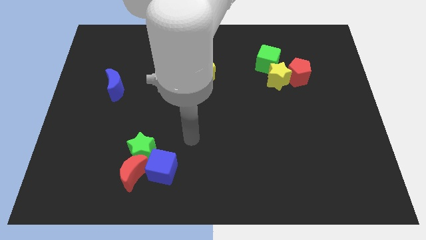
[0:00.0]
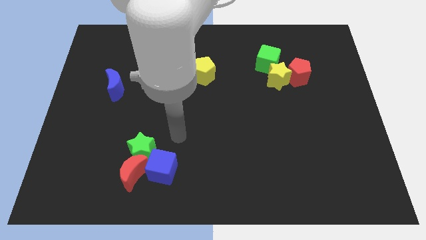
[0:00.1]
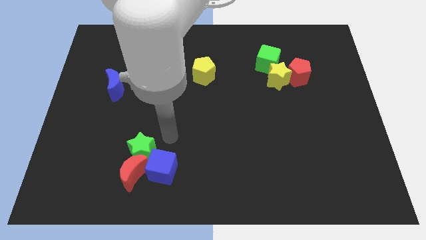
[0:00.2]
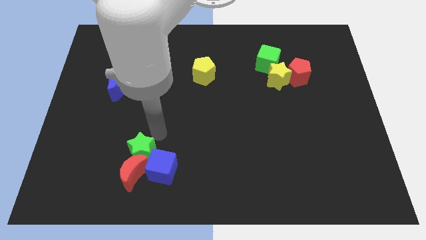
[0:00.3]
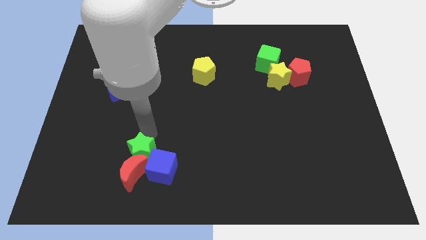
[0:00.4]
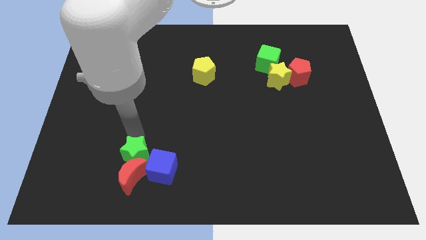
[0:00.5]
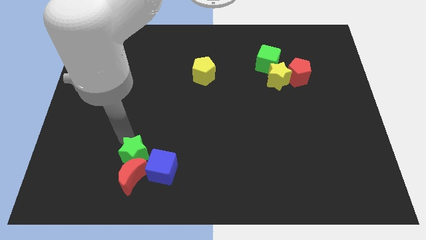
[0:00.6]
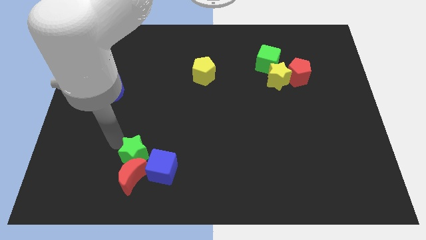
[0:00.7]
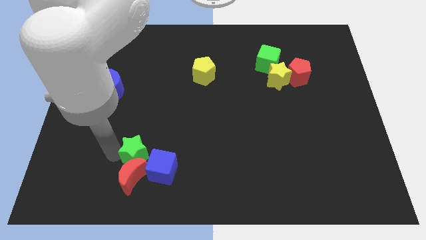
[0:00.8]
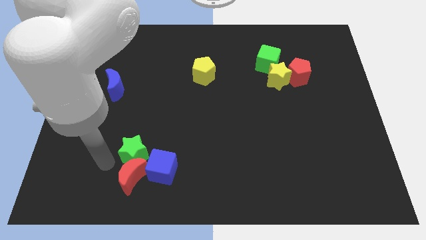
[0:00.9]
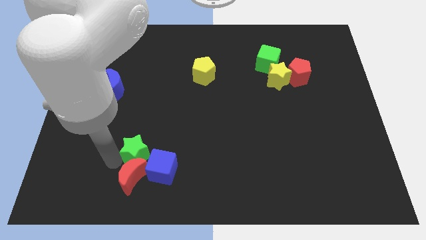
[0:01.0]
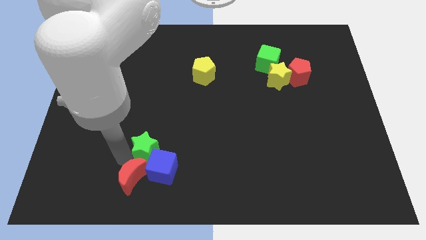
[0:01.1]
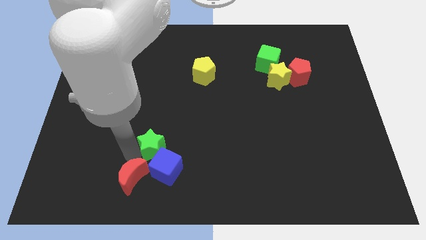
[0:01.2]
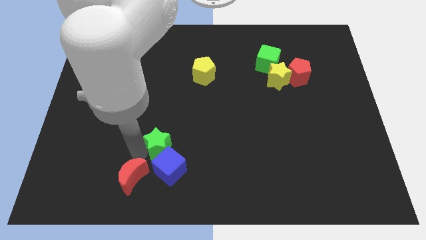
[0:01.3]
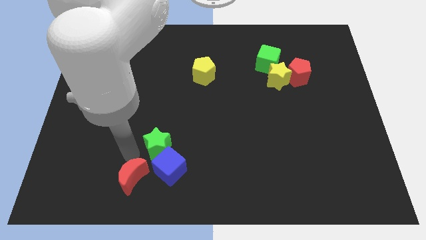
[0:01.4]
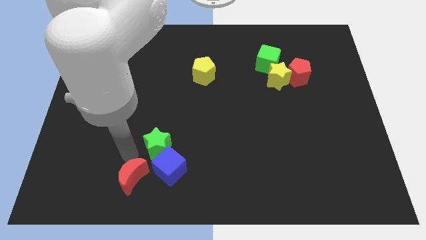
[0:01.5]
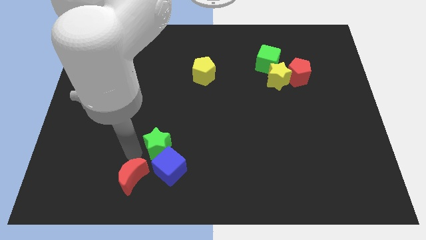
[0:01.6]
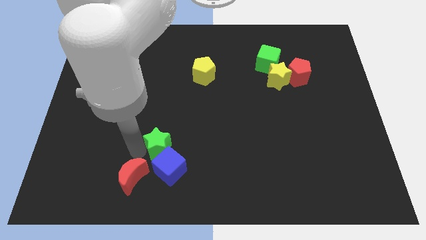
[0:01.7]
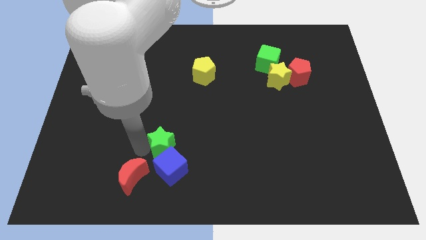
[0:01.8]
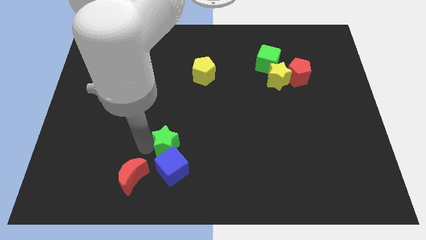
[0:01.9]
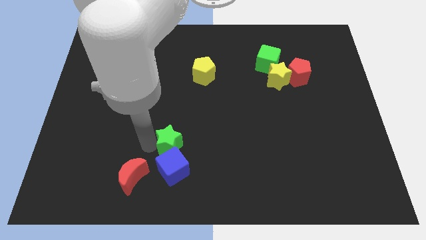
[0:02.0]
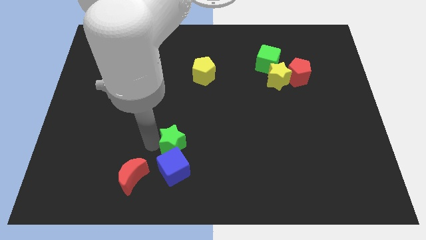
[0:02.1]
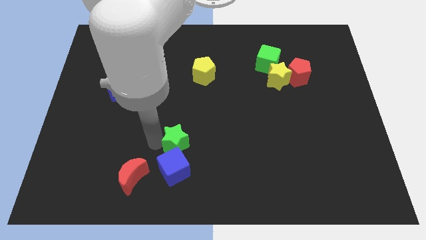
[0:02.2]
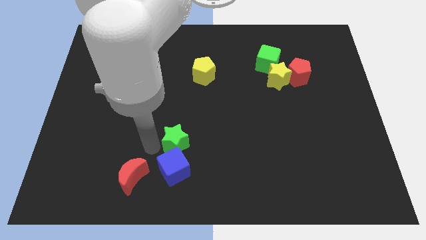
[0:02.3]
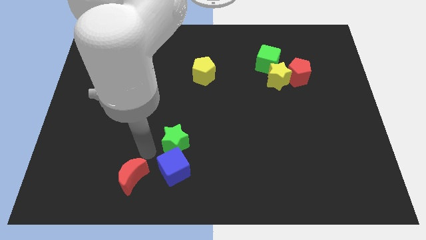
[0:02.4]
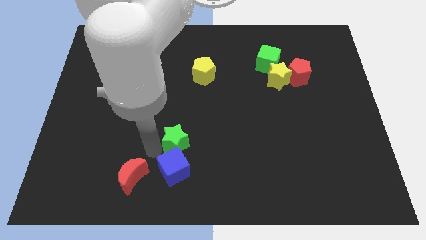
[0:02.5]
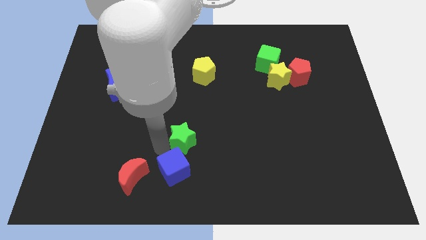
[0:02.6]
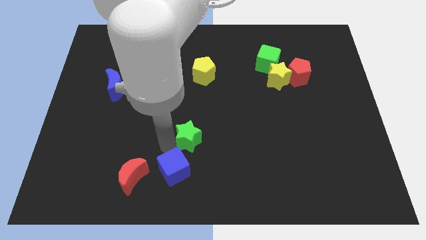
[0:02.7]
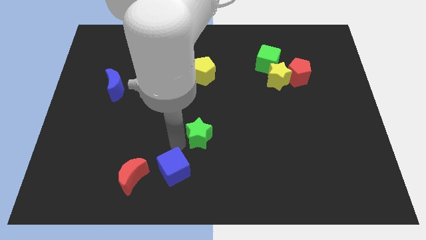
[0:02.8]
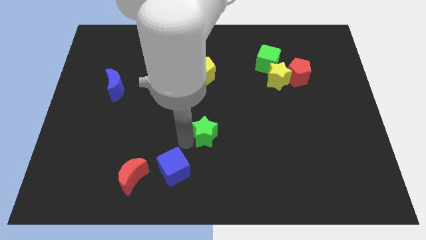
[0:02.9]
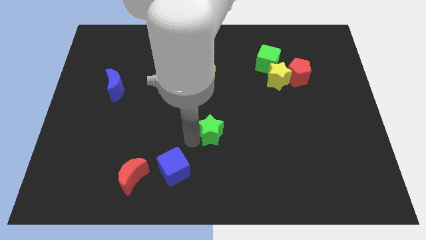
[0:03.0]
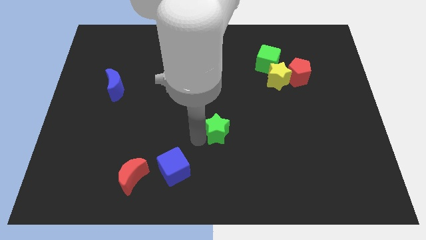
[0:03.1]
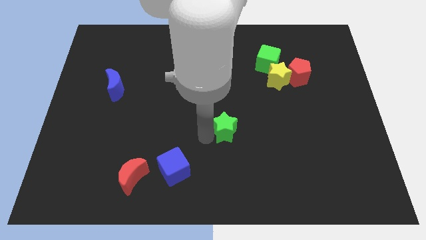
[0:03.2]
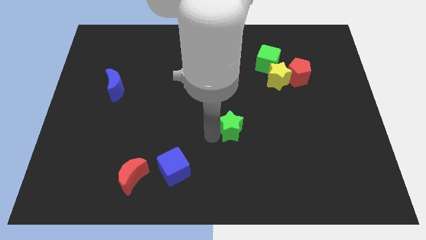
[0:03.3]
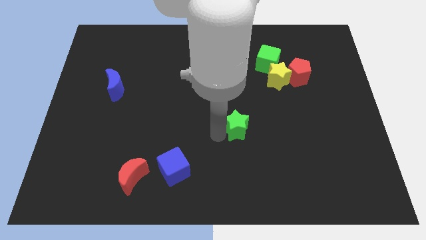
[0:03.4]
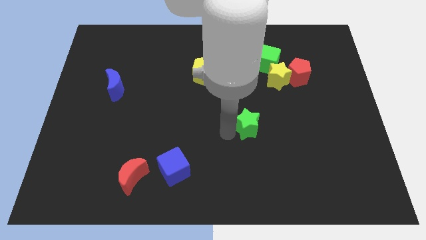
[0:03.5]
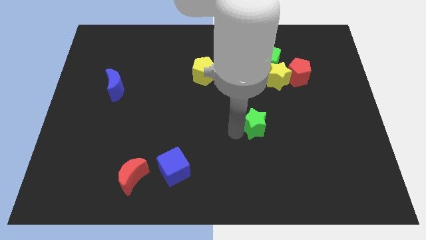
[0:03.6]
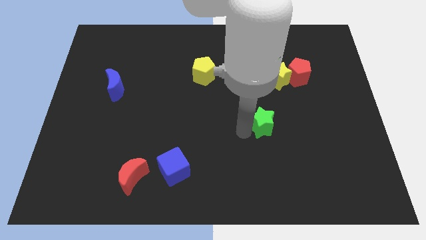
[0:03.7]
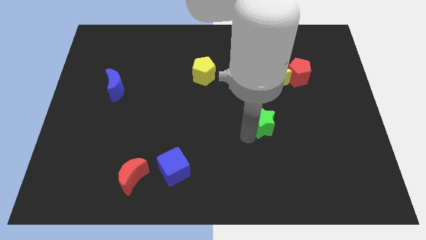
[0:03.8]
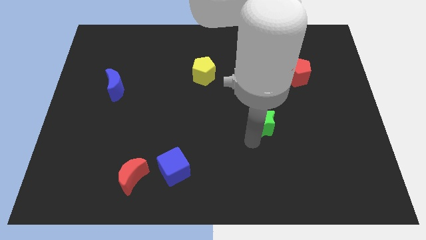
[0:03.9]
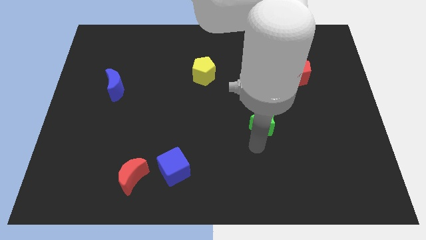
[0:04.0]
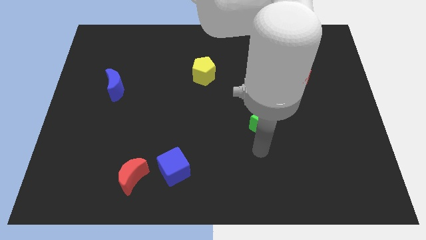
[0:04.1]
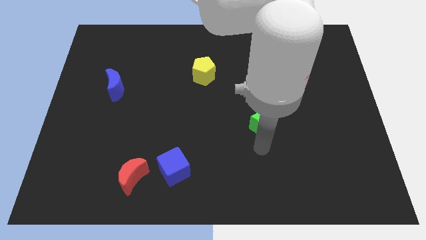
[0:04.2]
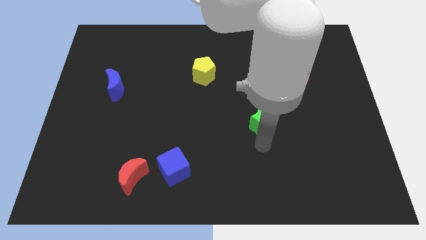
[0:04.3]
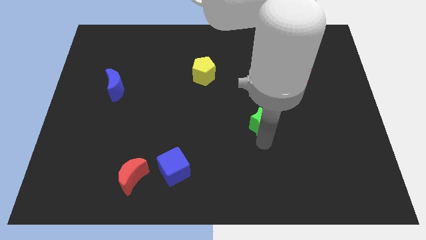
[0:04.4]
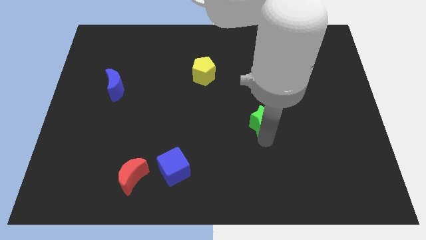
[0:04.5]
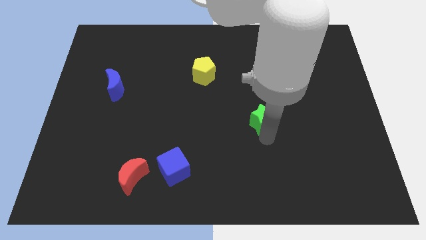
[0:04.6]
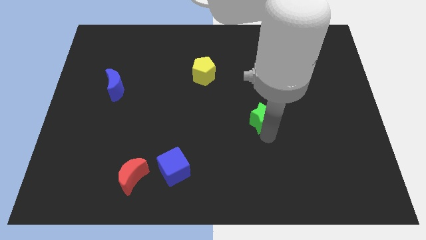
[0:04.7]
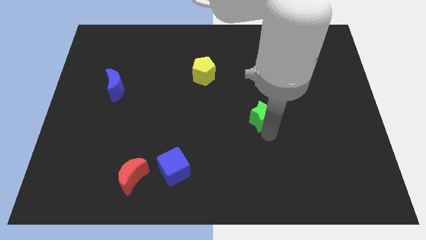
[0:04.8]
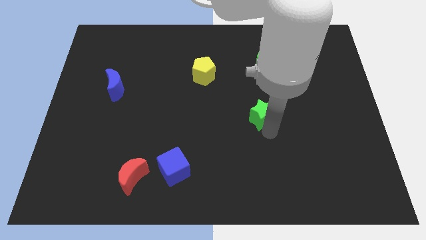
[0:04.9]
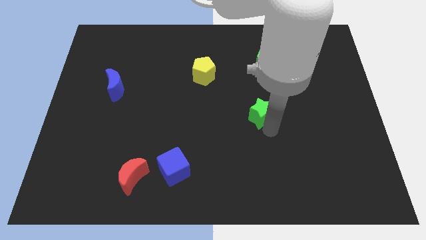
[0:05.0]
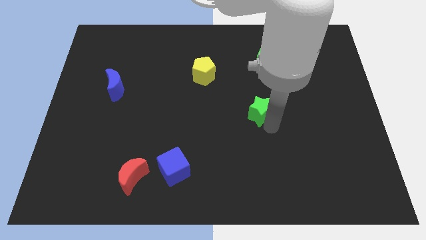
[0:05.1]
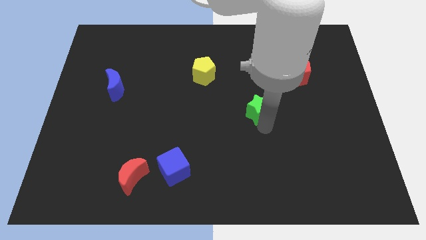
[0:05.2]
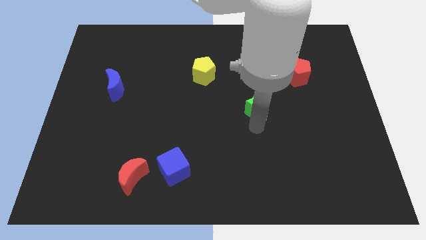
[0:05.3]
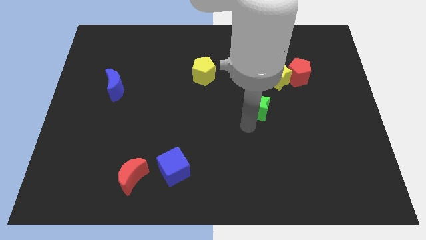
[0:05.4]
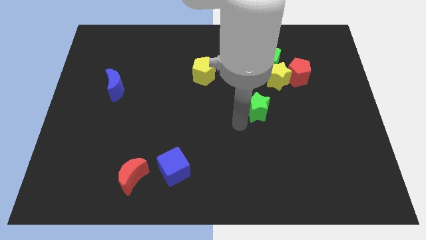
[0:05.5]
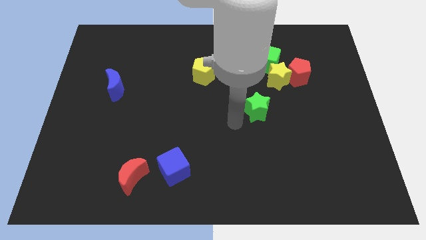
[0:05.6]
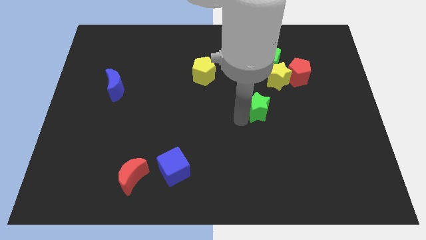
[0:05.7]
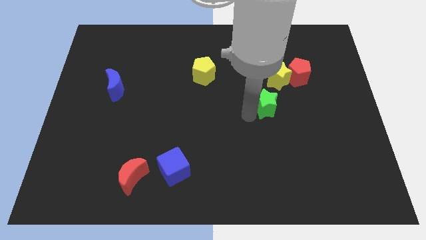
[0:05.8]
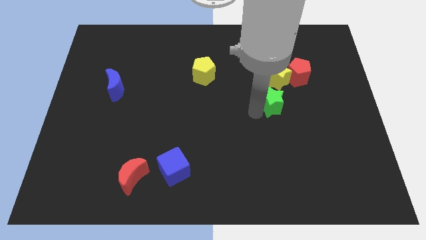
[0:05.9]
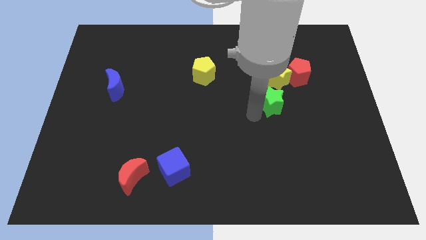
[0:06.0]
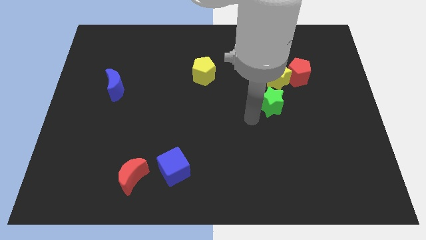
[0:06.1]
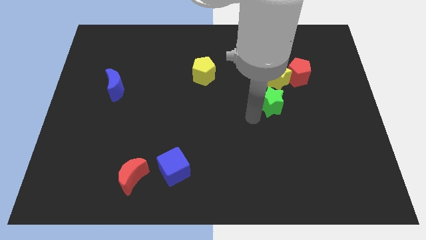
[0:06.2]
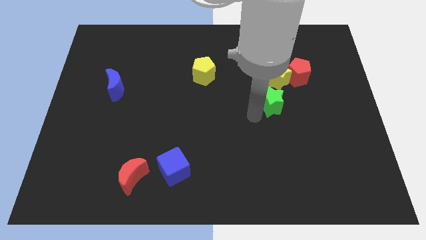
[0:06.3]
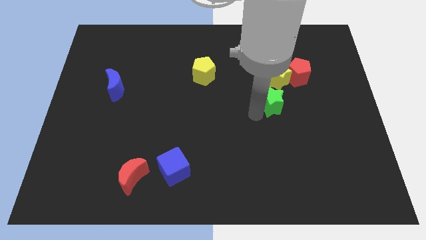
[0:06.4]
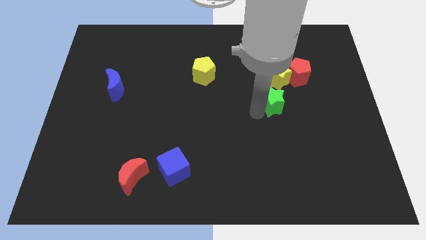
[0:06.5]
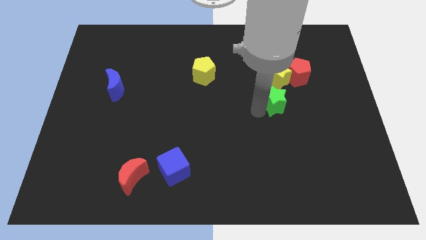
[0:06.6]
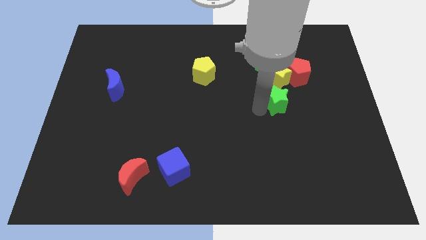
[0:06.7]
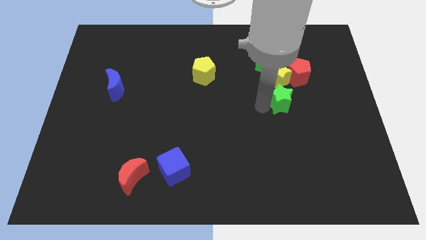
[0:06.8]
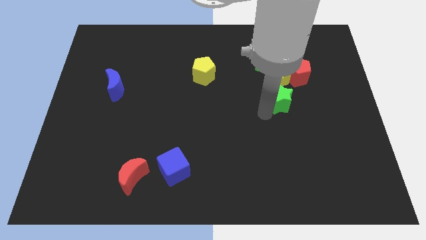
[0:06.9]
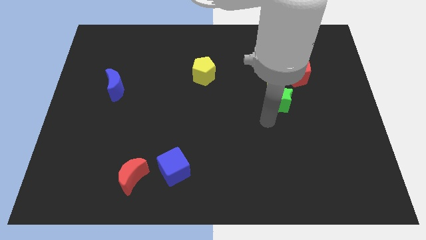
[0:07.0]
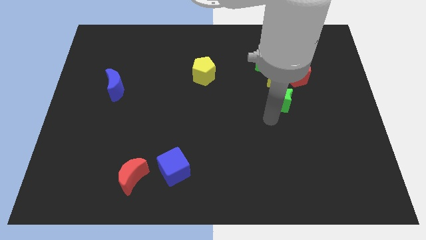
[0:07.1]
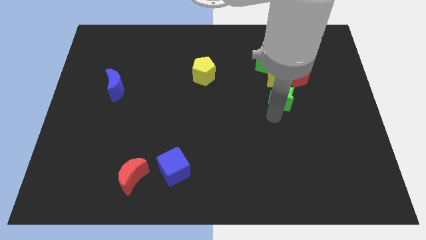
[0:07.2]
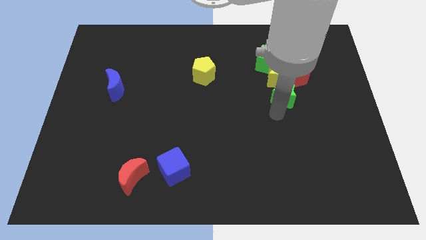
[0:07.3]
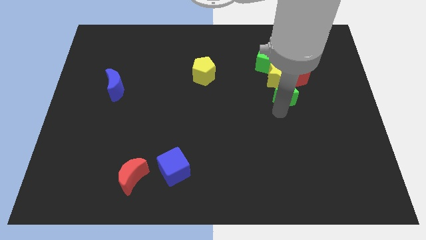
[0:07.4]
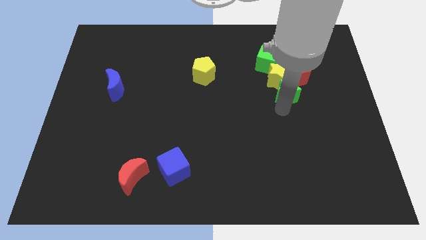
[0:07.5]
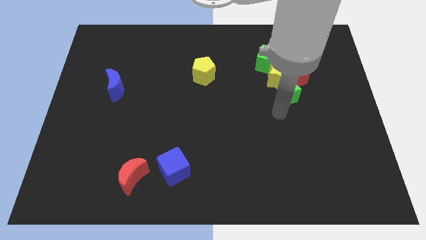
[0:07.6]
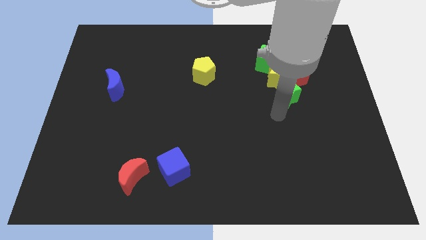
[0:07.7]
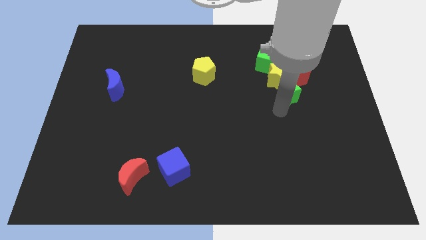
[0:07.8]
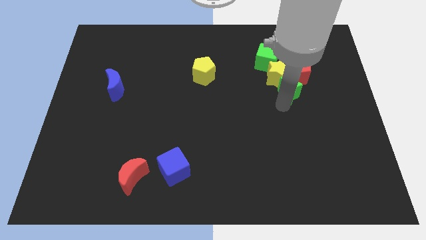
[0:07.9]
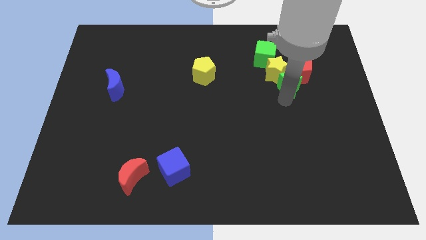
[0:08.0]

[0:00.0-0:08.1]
move the green star next to the red pentagon
